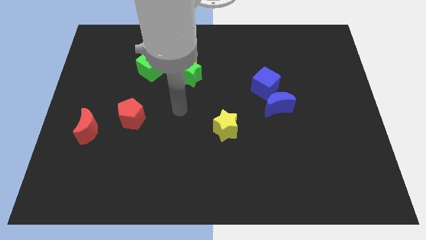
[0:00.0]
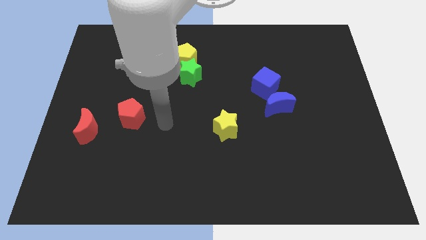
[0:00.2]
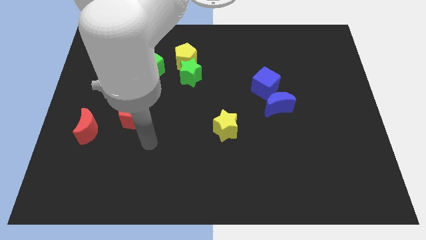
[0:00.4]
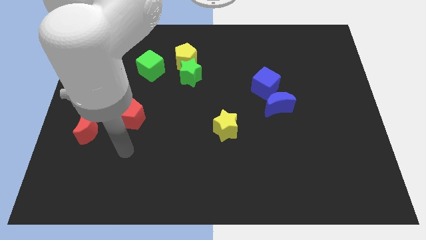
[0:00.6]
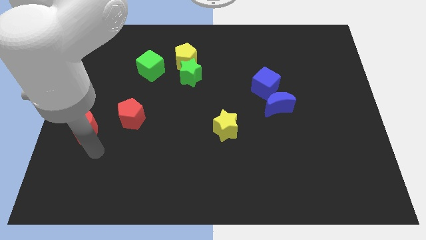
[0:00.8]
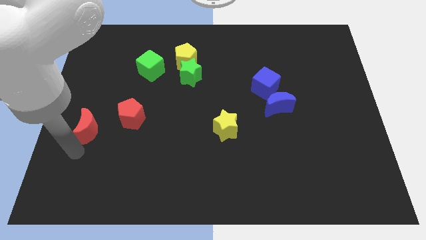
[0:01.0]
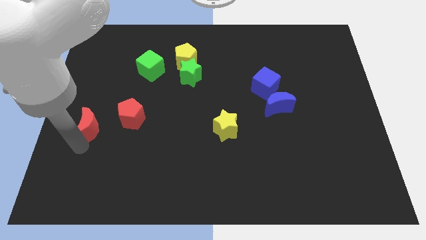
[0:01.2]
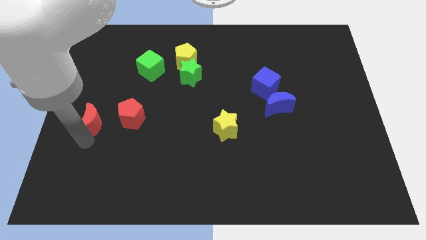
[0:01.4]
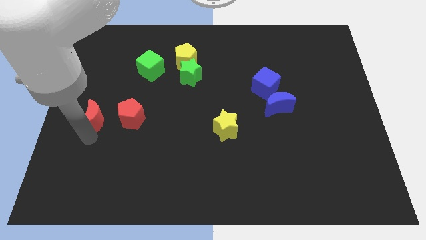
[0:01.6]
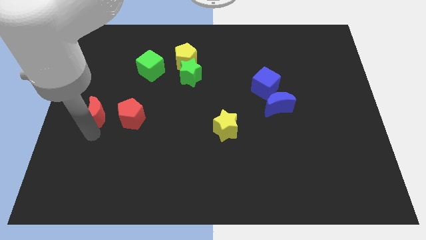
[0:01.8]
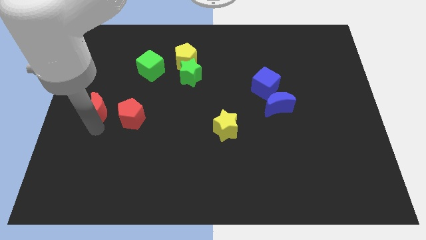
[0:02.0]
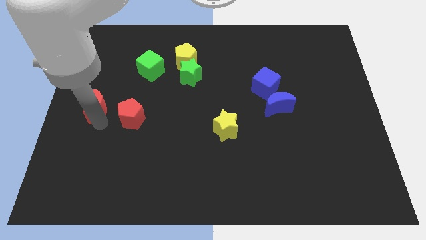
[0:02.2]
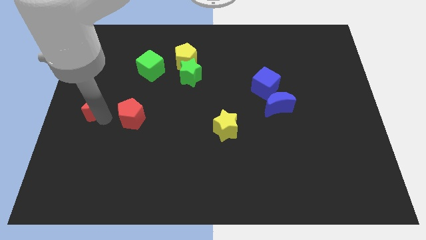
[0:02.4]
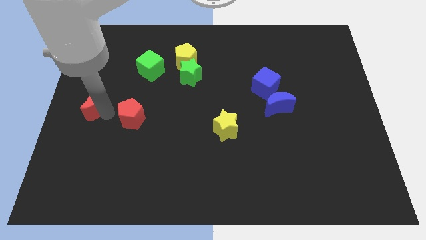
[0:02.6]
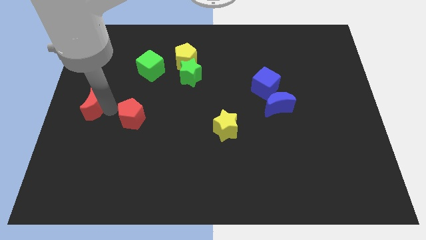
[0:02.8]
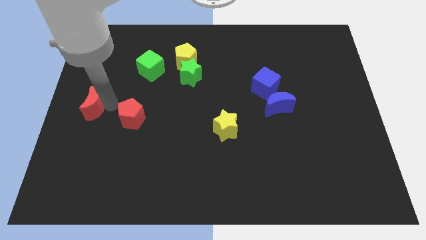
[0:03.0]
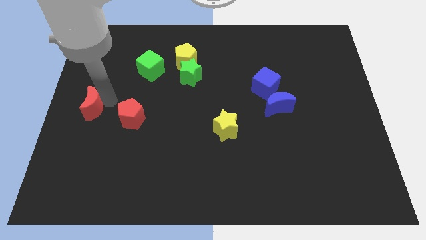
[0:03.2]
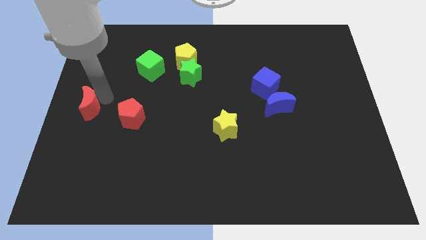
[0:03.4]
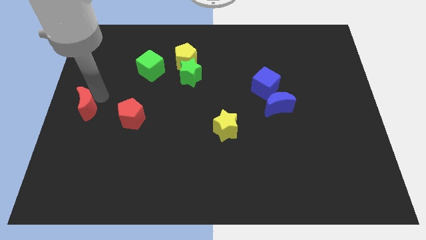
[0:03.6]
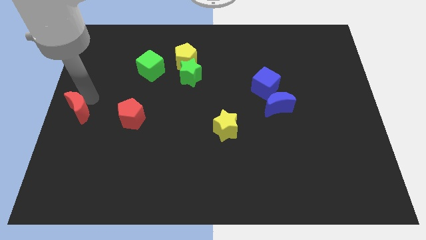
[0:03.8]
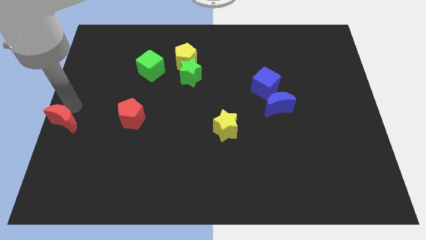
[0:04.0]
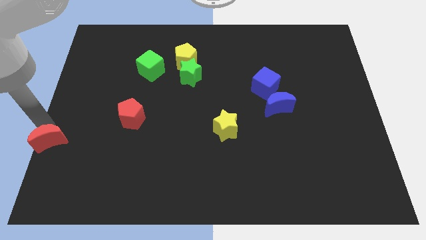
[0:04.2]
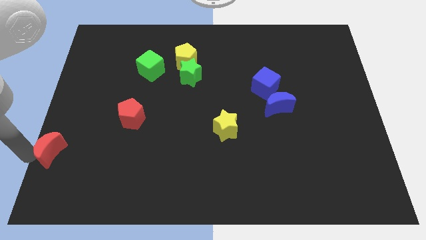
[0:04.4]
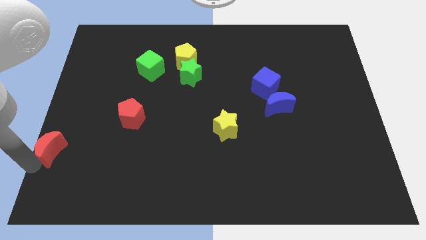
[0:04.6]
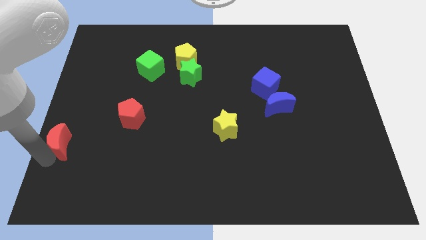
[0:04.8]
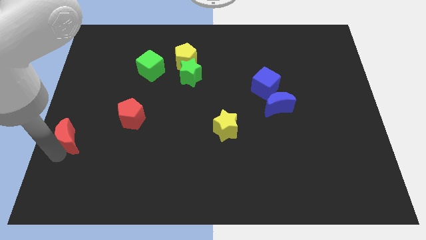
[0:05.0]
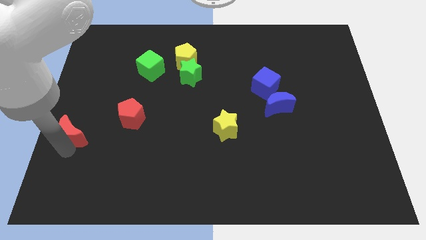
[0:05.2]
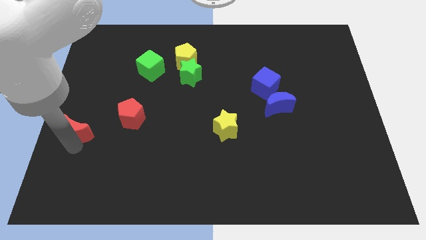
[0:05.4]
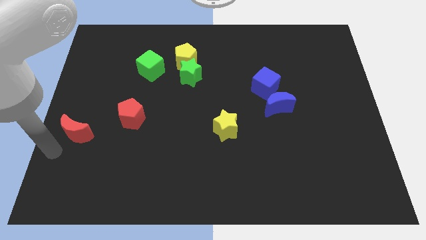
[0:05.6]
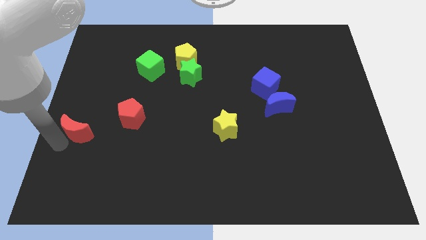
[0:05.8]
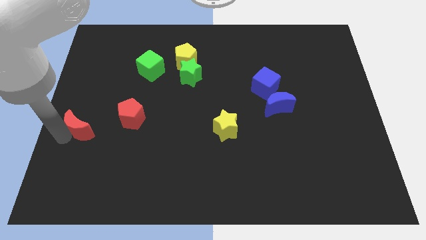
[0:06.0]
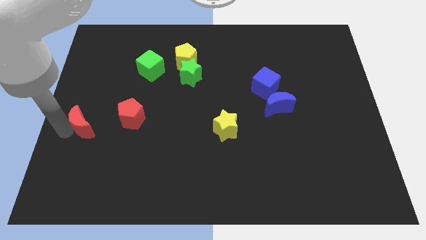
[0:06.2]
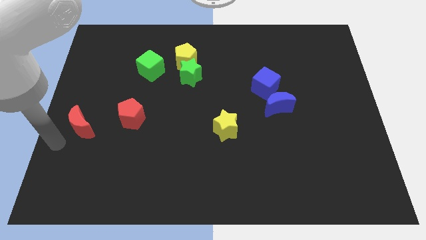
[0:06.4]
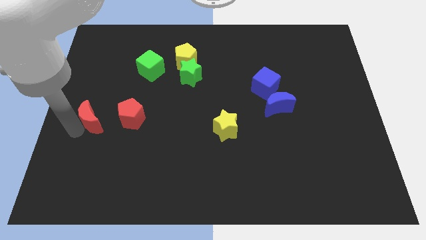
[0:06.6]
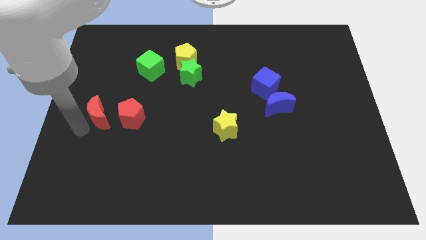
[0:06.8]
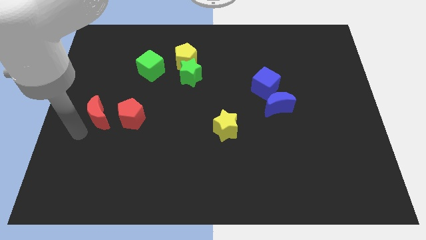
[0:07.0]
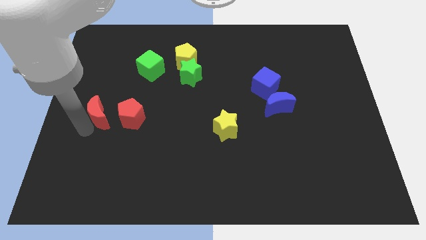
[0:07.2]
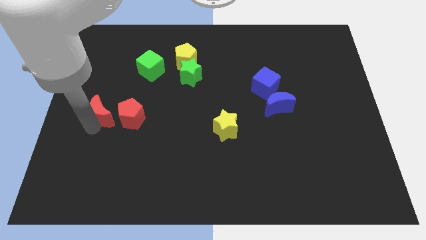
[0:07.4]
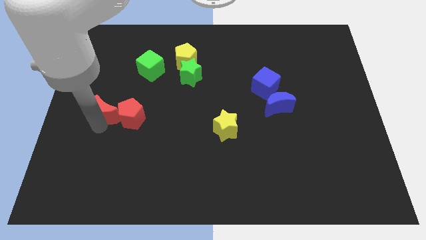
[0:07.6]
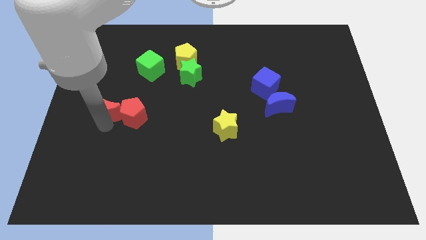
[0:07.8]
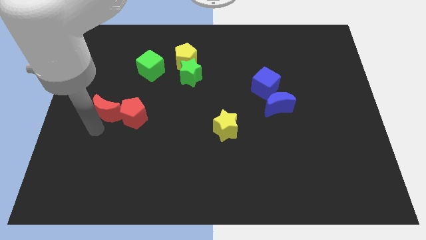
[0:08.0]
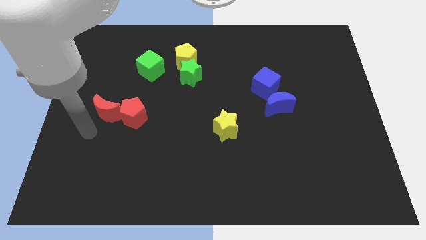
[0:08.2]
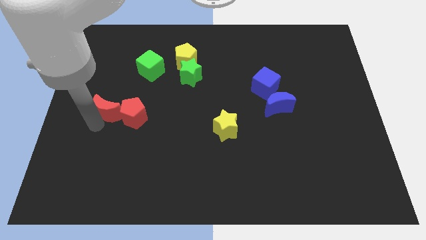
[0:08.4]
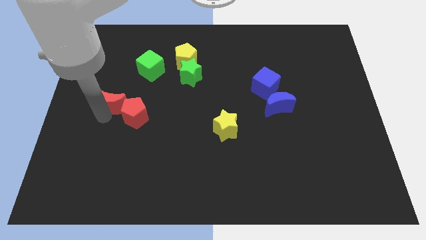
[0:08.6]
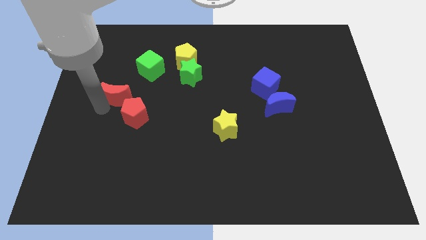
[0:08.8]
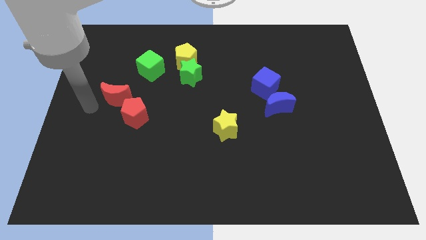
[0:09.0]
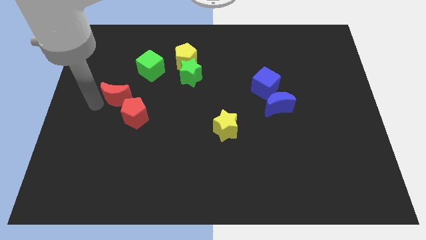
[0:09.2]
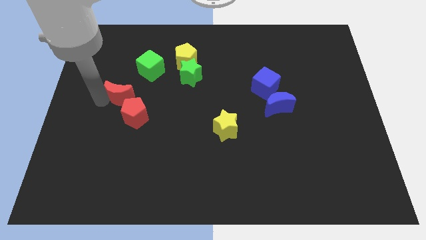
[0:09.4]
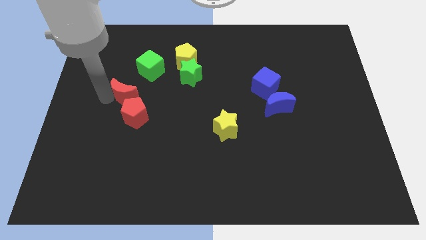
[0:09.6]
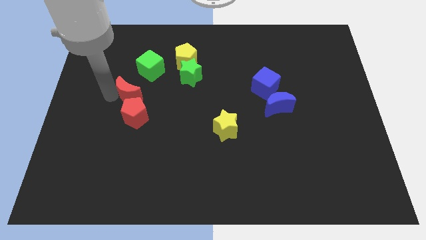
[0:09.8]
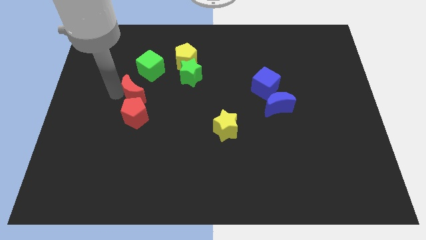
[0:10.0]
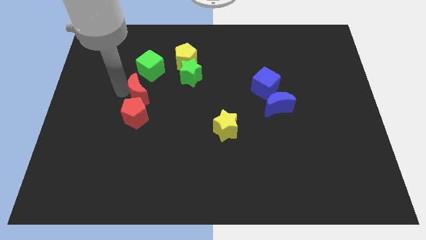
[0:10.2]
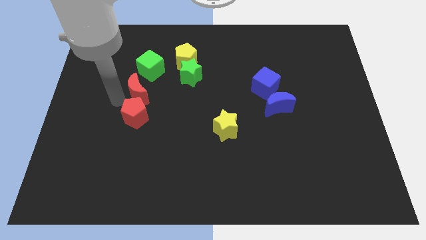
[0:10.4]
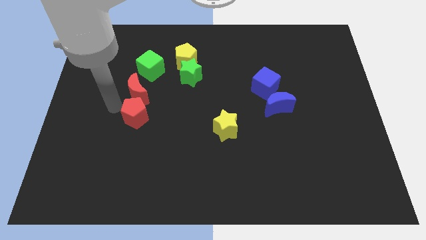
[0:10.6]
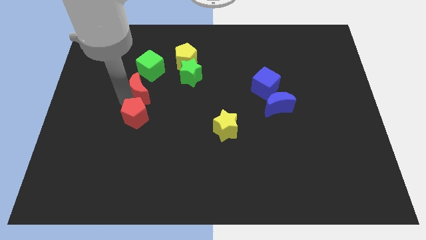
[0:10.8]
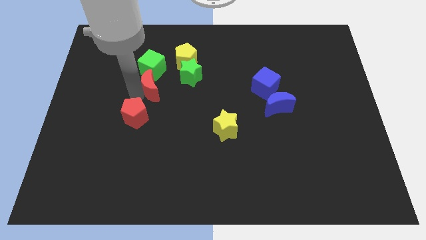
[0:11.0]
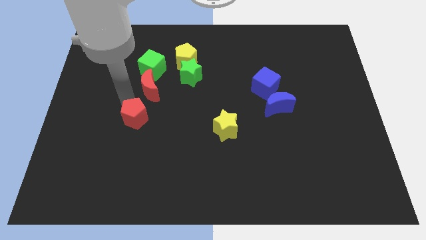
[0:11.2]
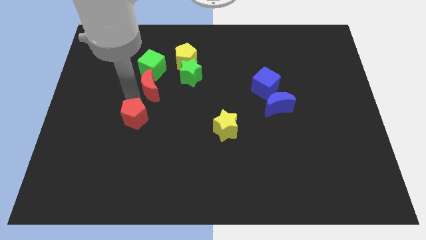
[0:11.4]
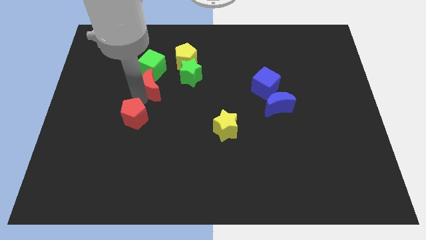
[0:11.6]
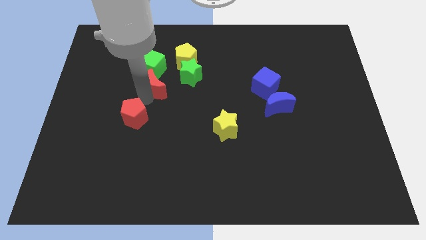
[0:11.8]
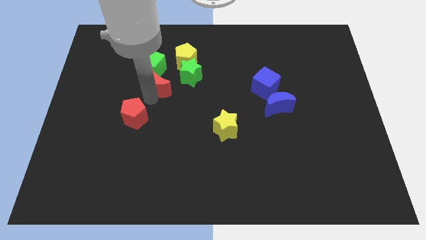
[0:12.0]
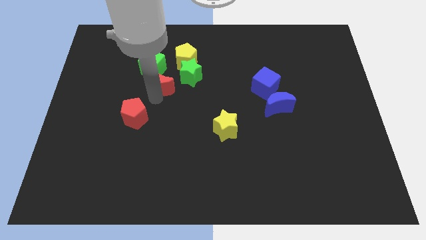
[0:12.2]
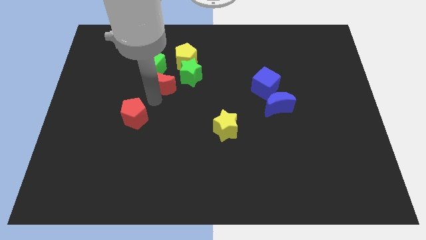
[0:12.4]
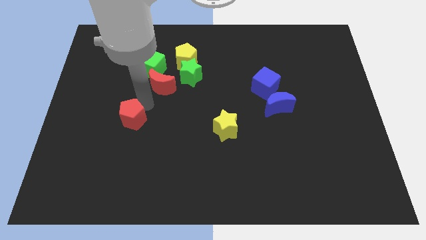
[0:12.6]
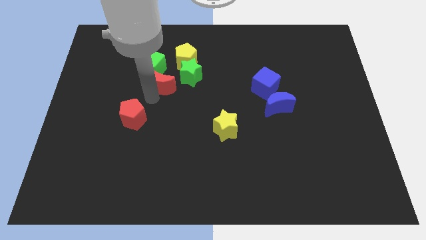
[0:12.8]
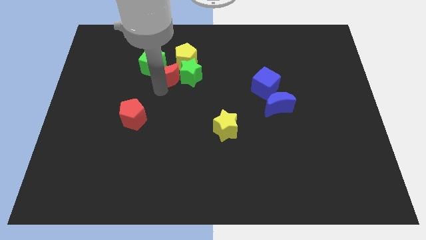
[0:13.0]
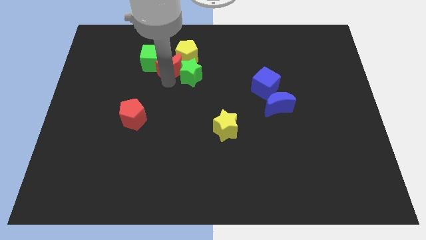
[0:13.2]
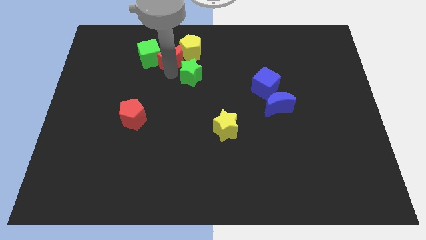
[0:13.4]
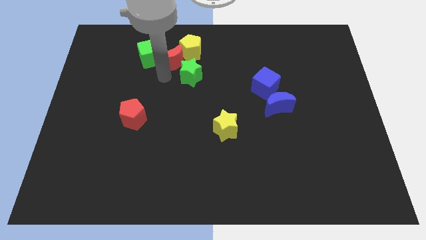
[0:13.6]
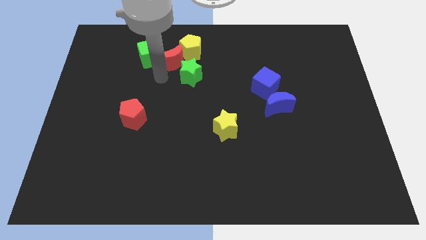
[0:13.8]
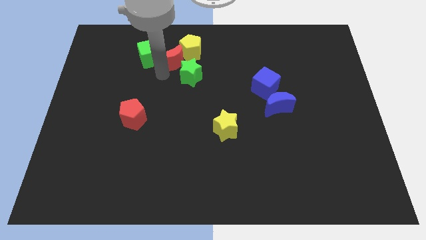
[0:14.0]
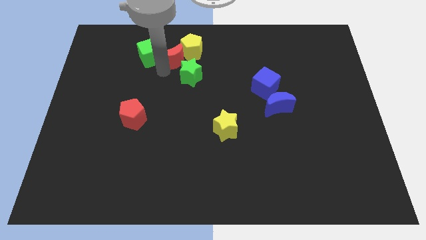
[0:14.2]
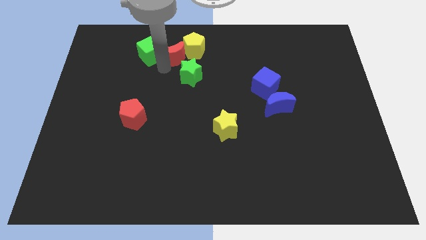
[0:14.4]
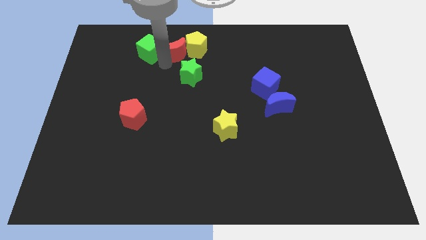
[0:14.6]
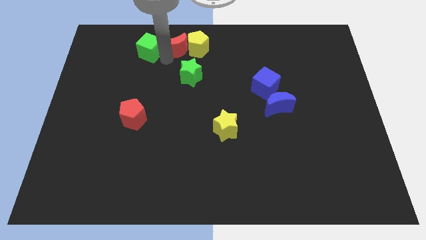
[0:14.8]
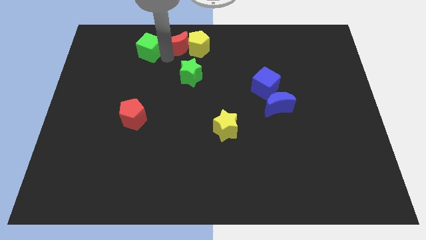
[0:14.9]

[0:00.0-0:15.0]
push the red moon to the top side
